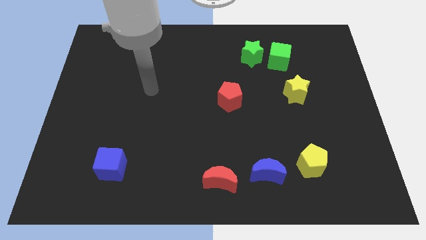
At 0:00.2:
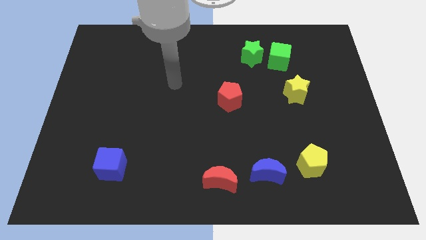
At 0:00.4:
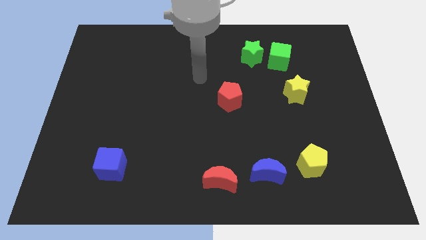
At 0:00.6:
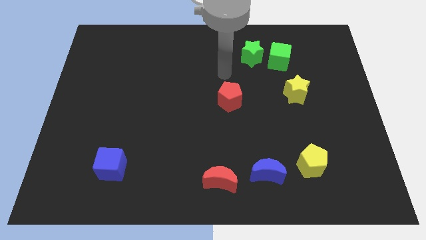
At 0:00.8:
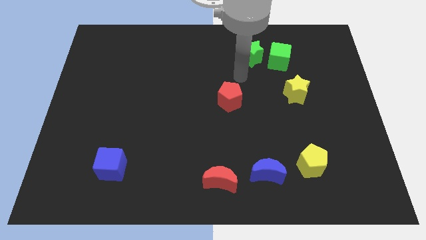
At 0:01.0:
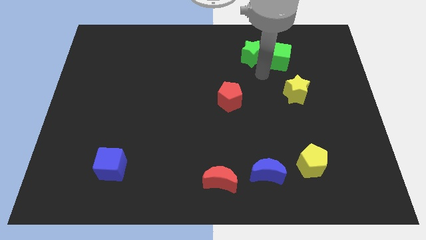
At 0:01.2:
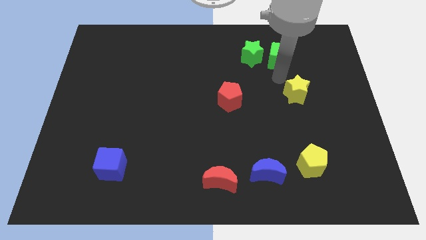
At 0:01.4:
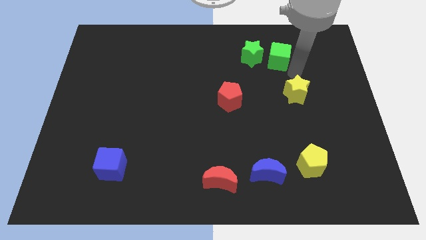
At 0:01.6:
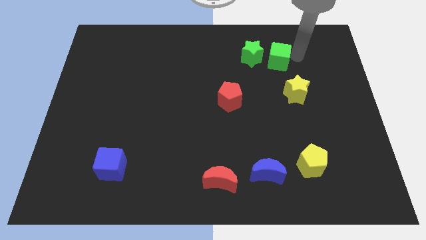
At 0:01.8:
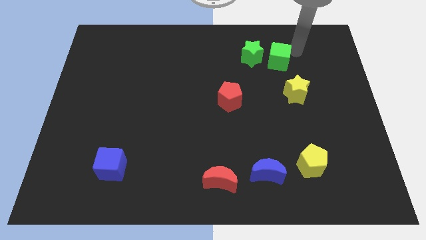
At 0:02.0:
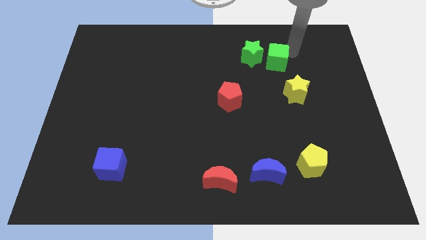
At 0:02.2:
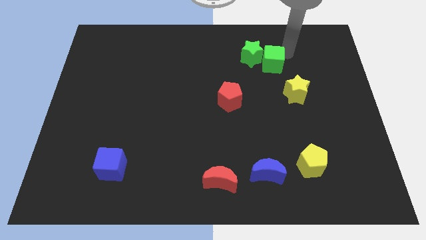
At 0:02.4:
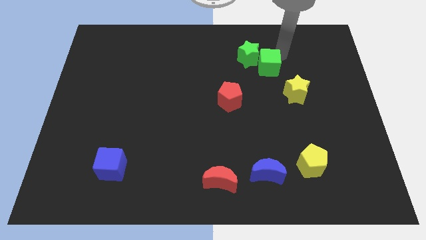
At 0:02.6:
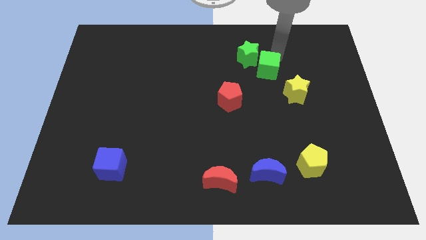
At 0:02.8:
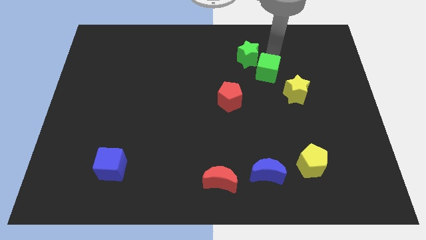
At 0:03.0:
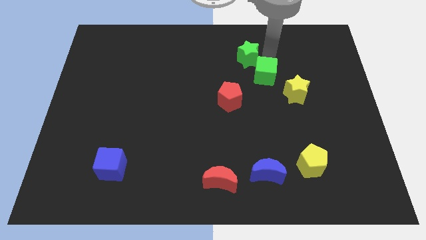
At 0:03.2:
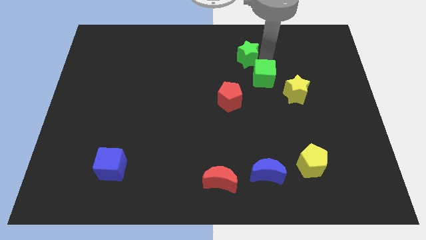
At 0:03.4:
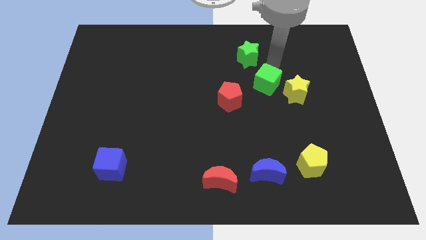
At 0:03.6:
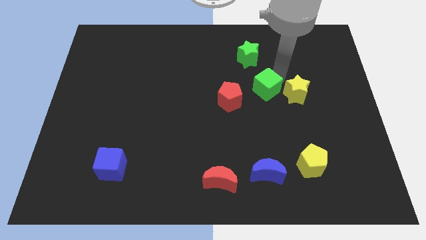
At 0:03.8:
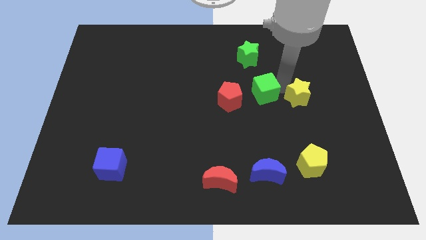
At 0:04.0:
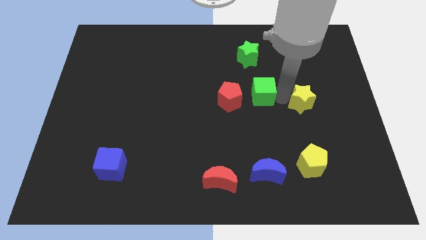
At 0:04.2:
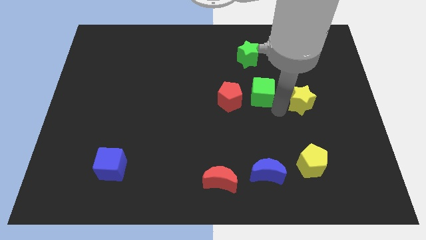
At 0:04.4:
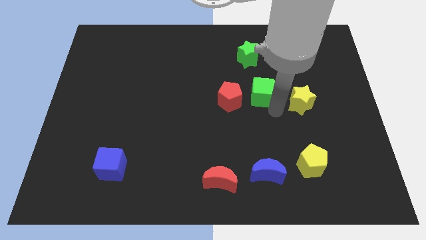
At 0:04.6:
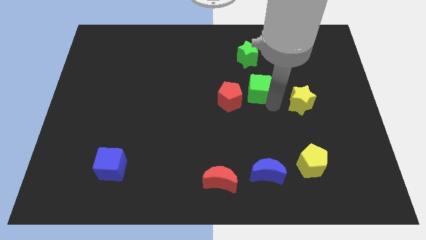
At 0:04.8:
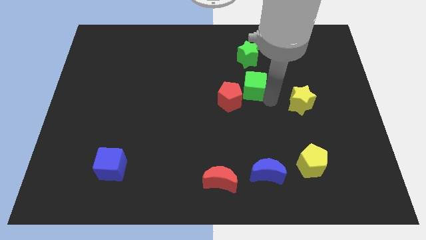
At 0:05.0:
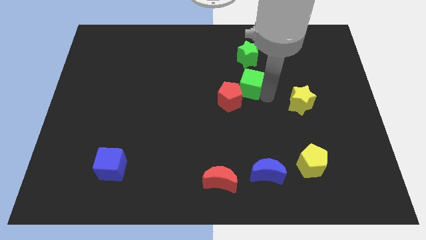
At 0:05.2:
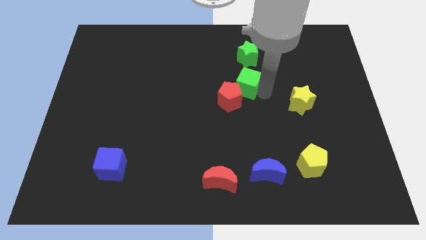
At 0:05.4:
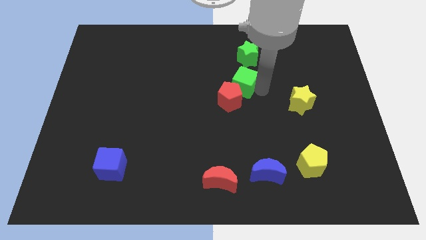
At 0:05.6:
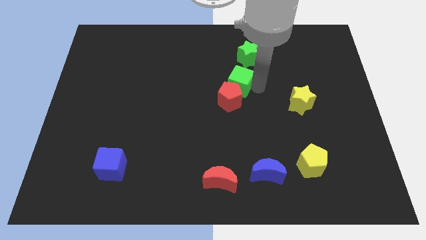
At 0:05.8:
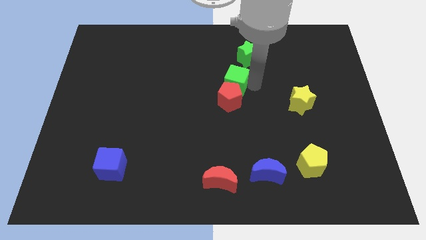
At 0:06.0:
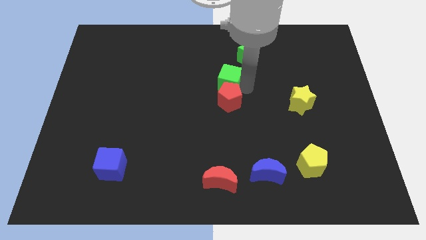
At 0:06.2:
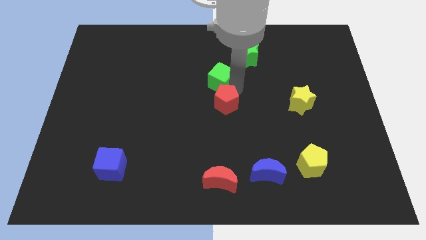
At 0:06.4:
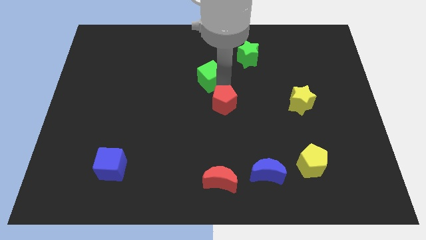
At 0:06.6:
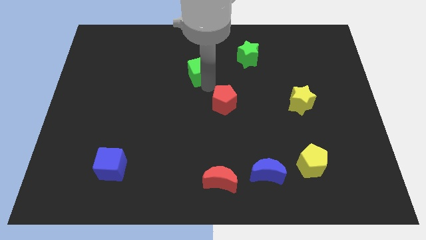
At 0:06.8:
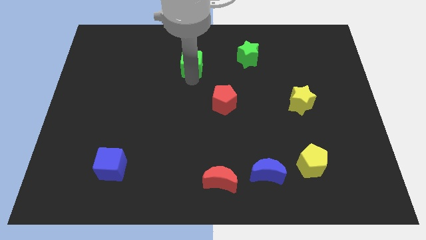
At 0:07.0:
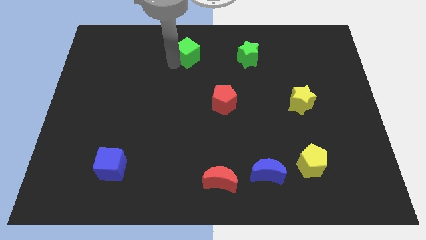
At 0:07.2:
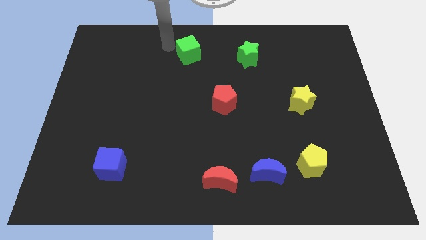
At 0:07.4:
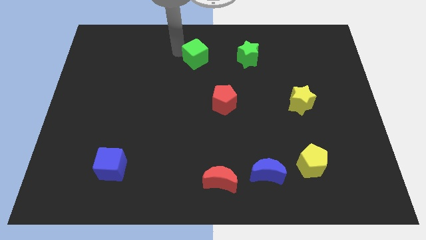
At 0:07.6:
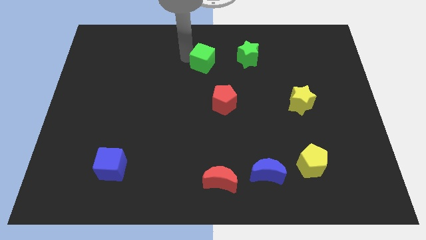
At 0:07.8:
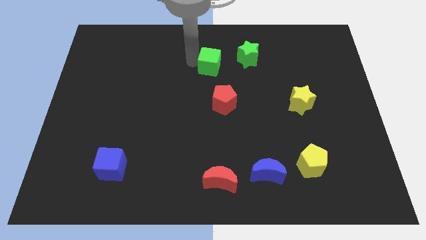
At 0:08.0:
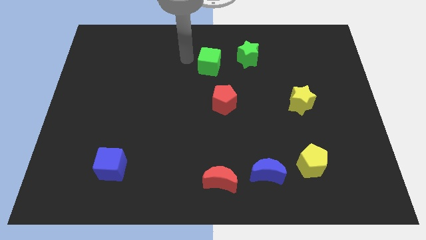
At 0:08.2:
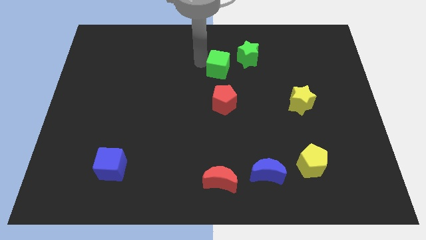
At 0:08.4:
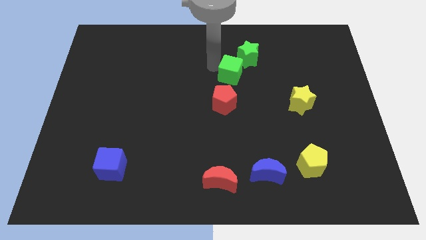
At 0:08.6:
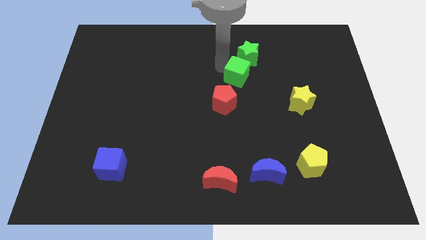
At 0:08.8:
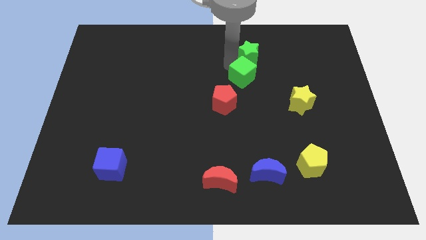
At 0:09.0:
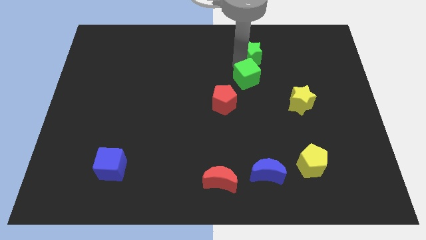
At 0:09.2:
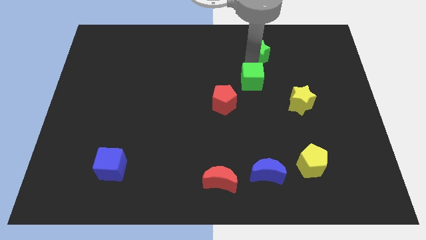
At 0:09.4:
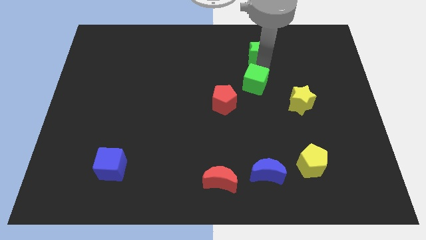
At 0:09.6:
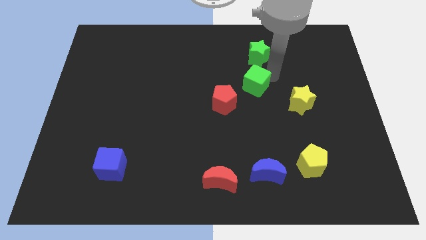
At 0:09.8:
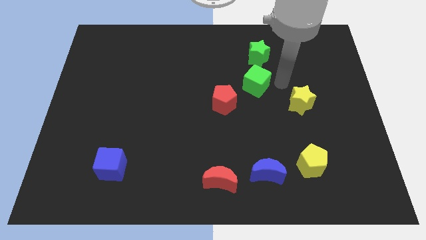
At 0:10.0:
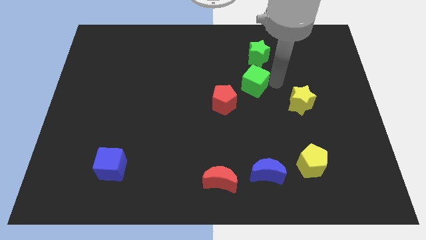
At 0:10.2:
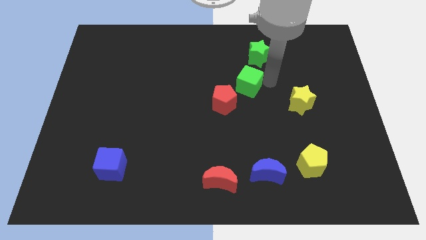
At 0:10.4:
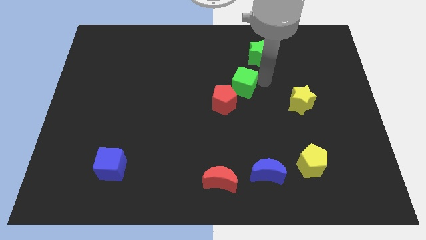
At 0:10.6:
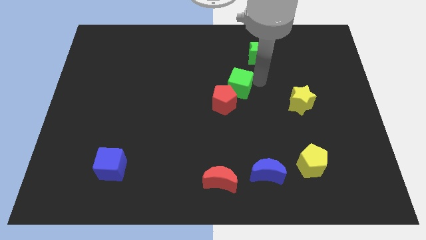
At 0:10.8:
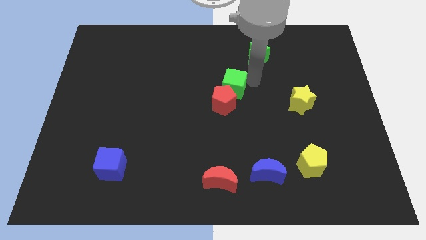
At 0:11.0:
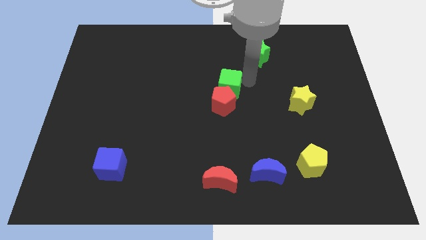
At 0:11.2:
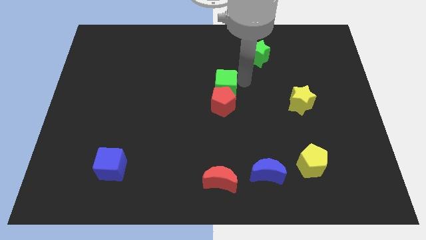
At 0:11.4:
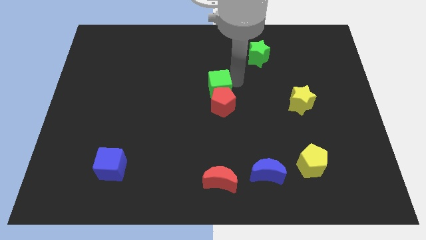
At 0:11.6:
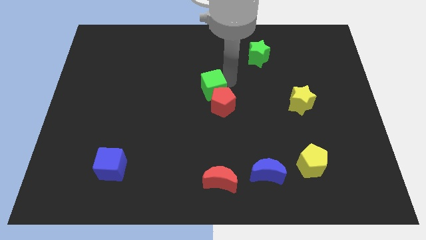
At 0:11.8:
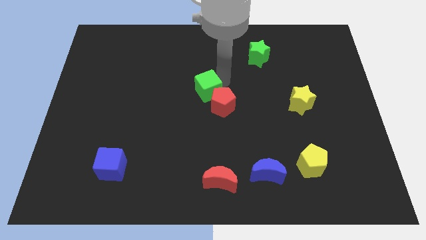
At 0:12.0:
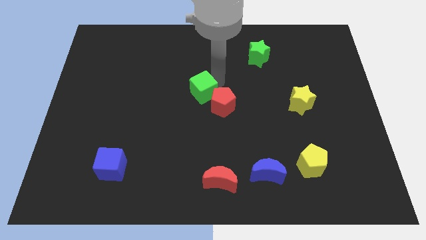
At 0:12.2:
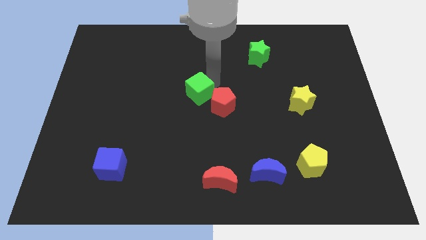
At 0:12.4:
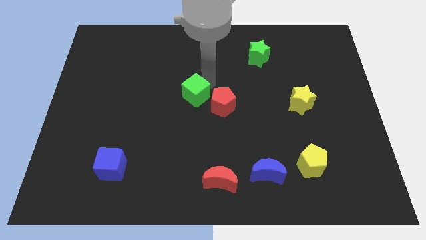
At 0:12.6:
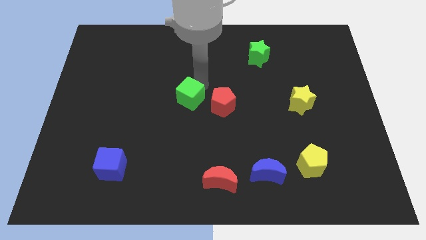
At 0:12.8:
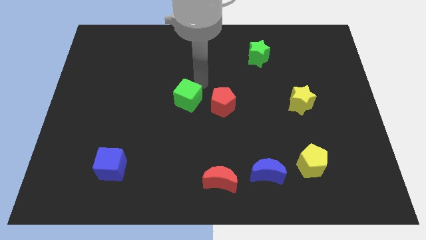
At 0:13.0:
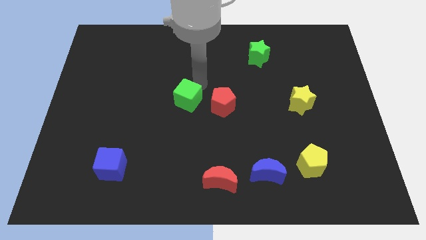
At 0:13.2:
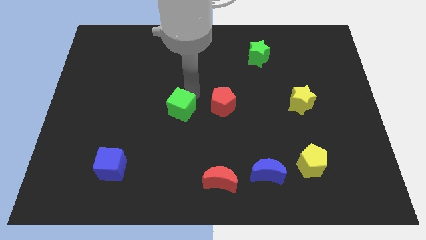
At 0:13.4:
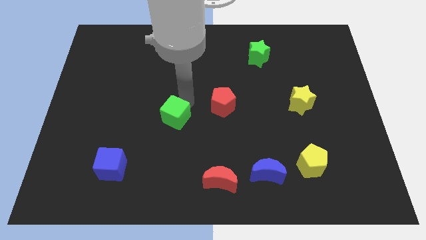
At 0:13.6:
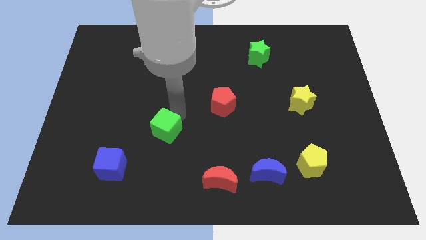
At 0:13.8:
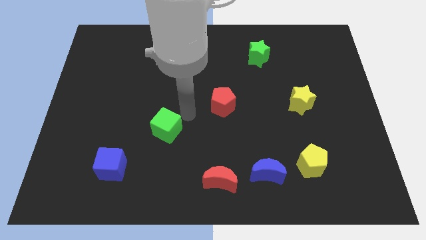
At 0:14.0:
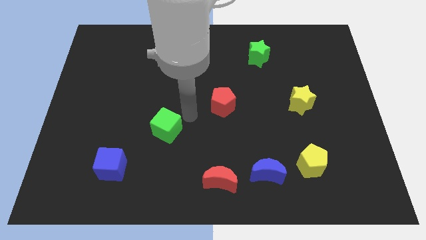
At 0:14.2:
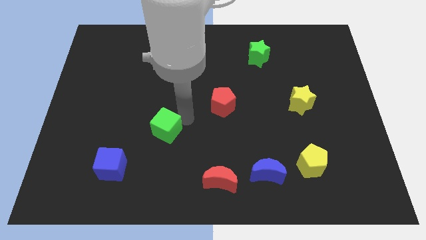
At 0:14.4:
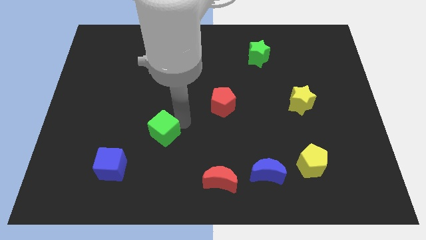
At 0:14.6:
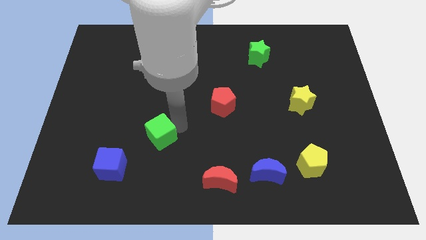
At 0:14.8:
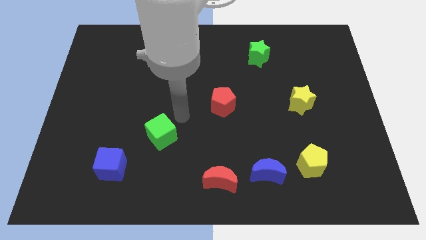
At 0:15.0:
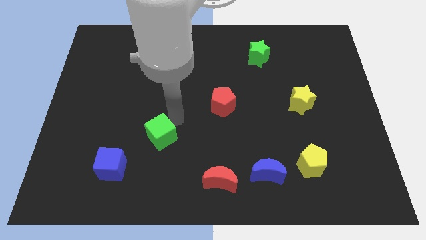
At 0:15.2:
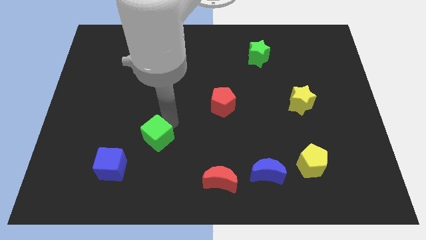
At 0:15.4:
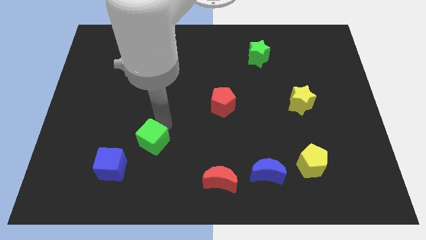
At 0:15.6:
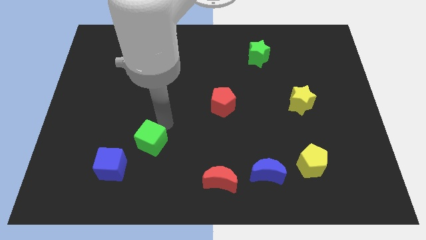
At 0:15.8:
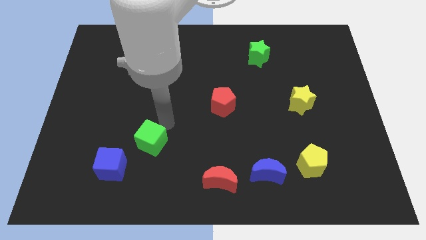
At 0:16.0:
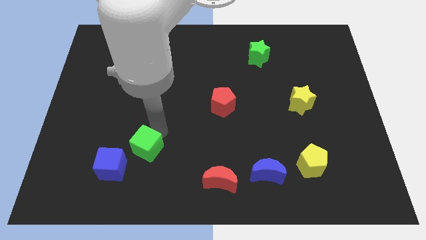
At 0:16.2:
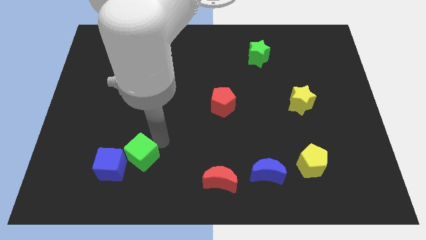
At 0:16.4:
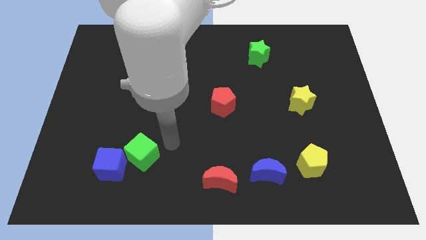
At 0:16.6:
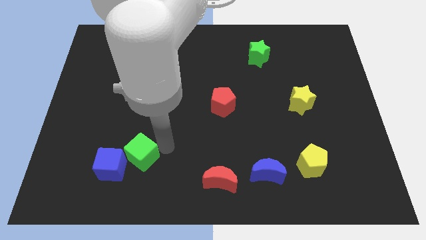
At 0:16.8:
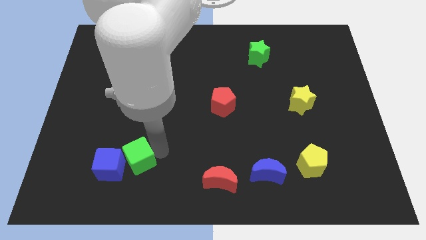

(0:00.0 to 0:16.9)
put the green cube towards the blue cube
